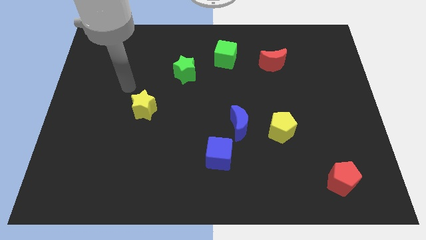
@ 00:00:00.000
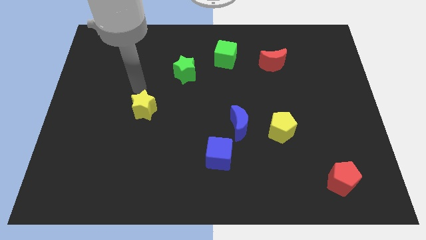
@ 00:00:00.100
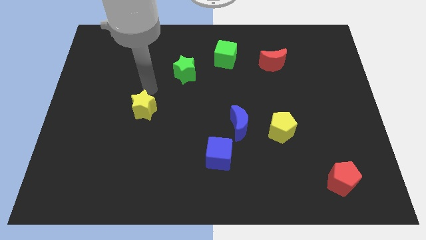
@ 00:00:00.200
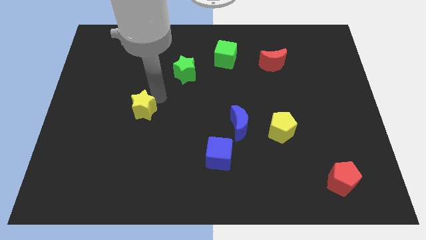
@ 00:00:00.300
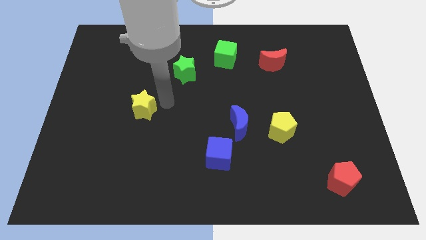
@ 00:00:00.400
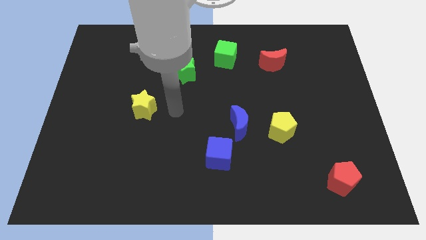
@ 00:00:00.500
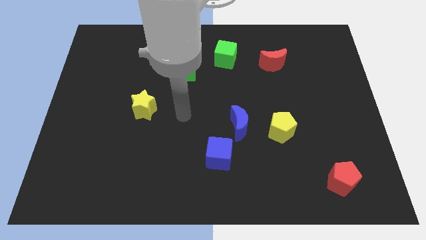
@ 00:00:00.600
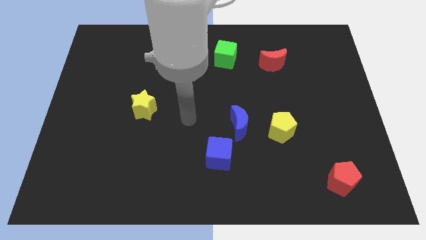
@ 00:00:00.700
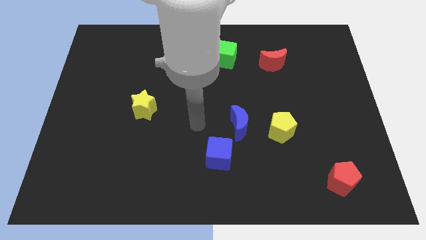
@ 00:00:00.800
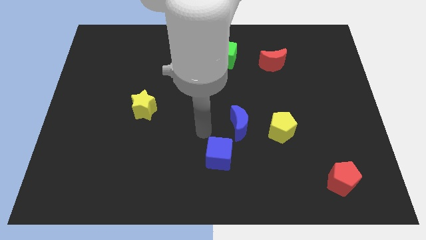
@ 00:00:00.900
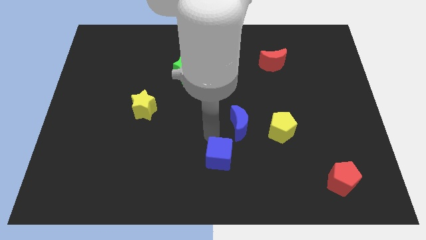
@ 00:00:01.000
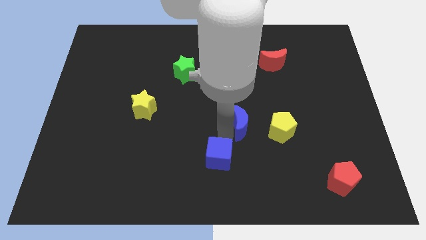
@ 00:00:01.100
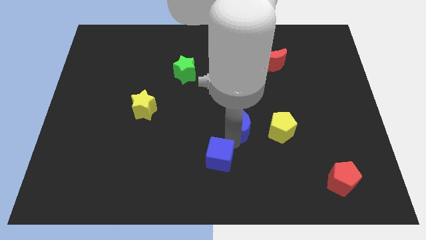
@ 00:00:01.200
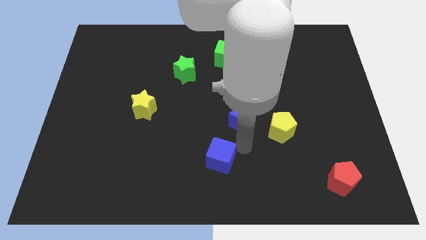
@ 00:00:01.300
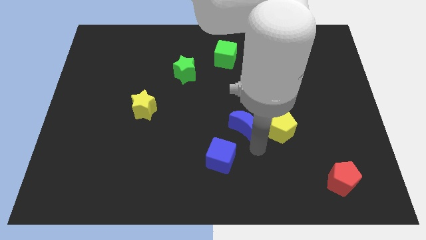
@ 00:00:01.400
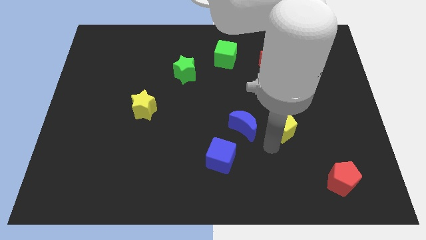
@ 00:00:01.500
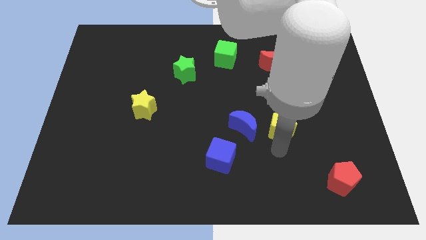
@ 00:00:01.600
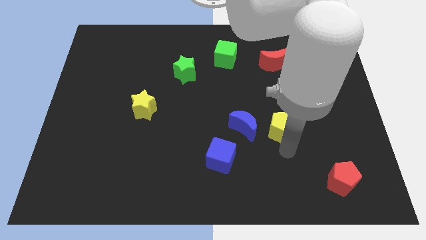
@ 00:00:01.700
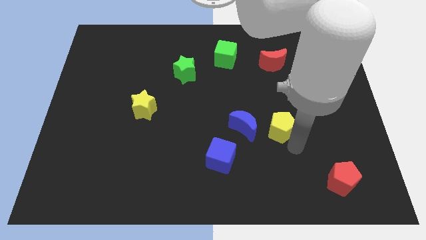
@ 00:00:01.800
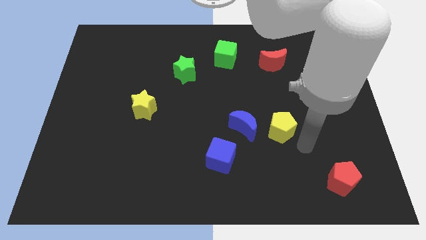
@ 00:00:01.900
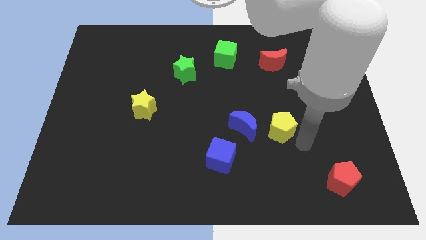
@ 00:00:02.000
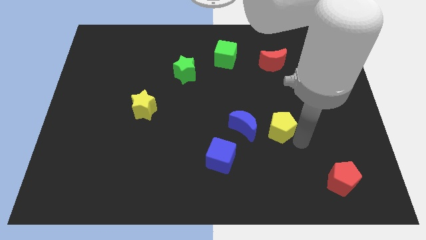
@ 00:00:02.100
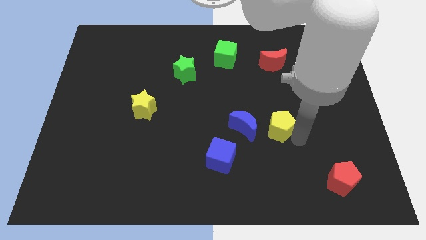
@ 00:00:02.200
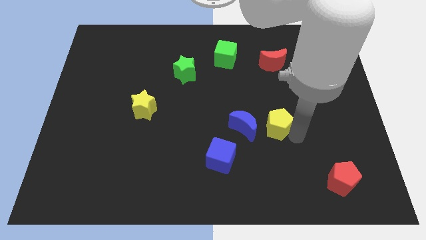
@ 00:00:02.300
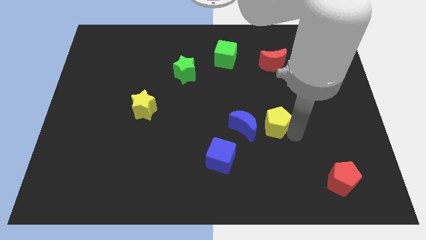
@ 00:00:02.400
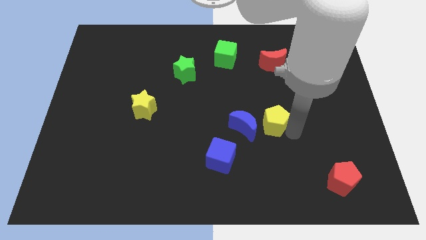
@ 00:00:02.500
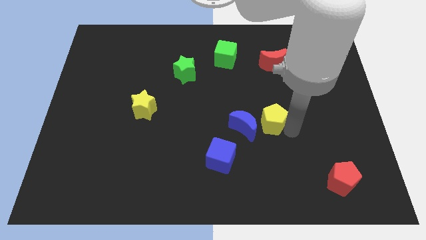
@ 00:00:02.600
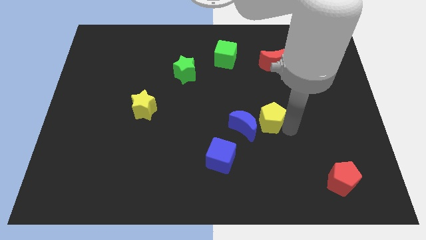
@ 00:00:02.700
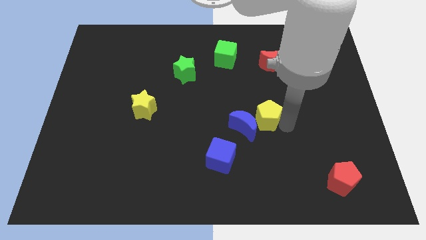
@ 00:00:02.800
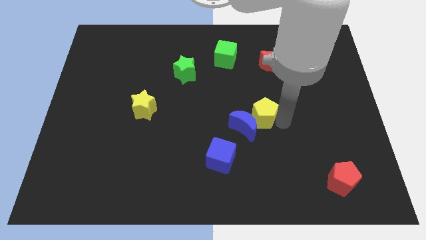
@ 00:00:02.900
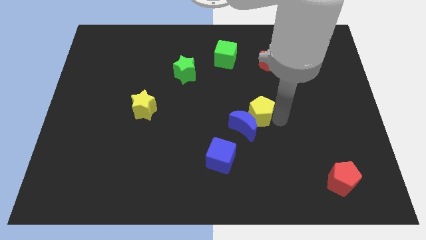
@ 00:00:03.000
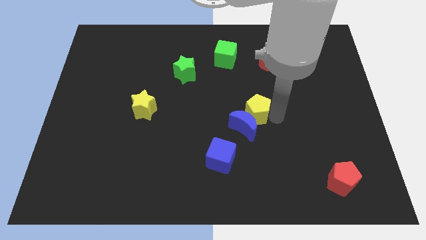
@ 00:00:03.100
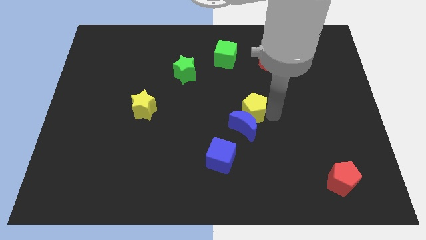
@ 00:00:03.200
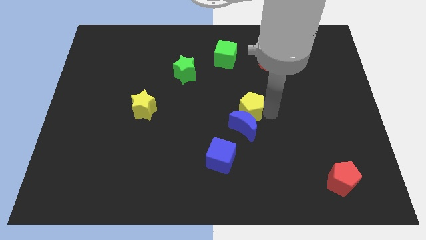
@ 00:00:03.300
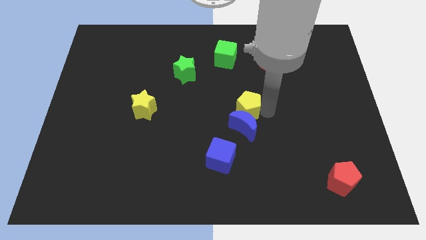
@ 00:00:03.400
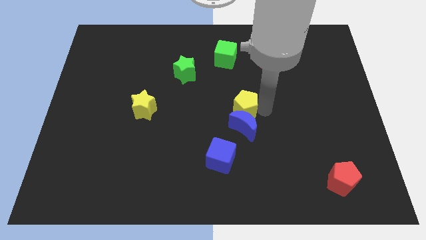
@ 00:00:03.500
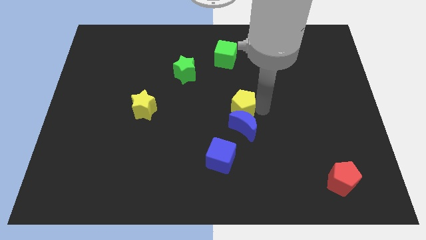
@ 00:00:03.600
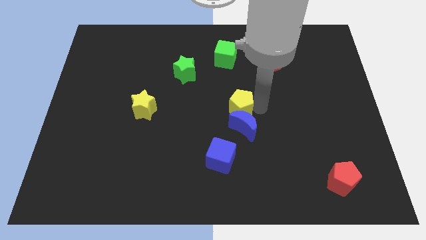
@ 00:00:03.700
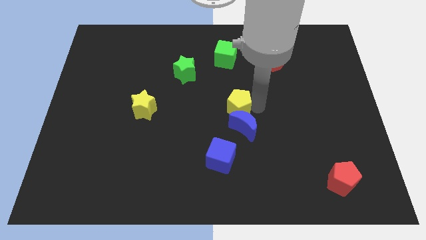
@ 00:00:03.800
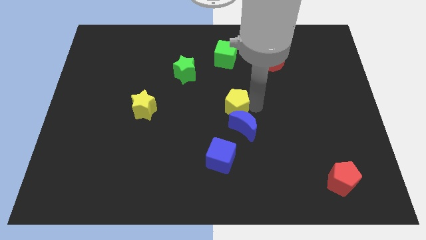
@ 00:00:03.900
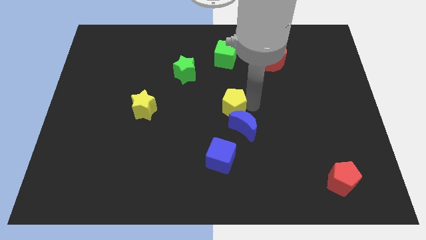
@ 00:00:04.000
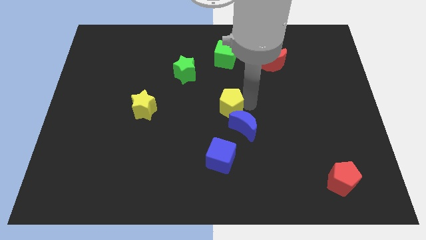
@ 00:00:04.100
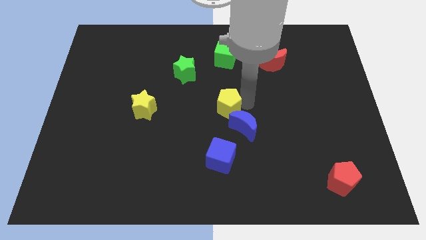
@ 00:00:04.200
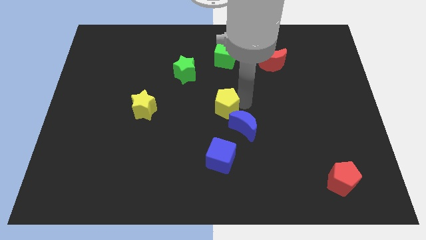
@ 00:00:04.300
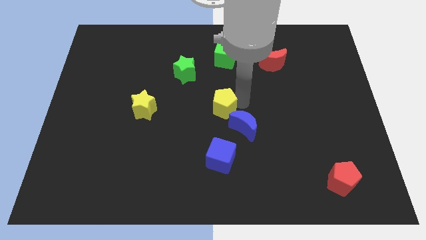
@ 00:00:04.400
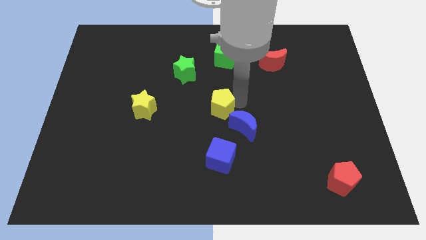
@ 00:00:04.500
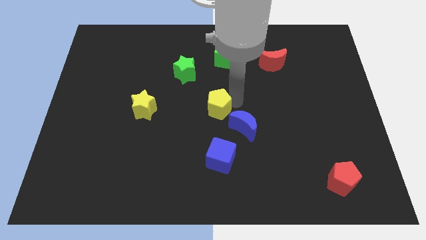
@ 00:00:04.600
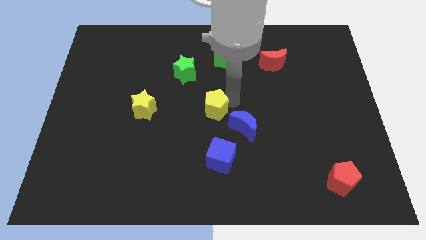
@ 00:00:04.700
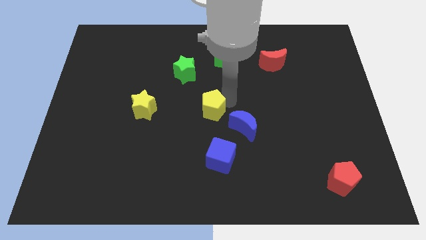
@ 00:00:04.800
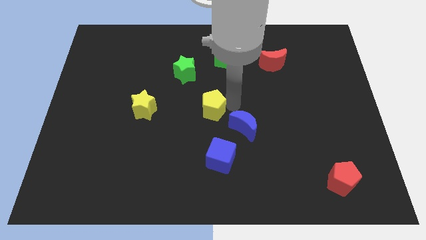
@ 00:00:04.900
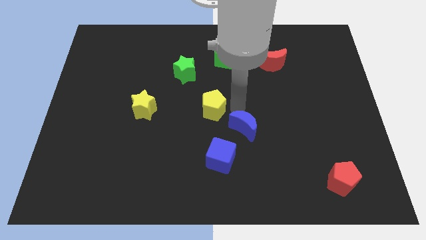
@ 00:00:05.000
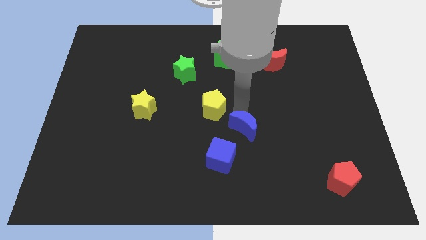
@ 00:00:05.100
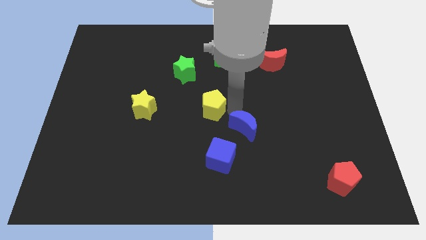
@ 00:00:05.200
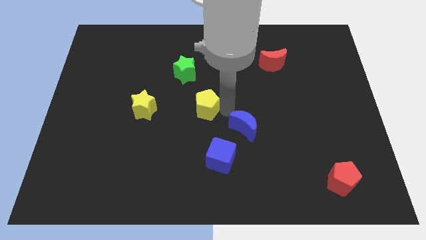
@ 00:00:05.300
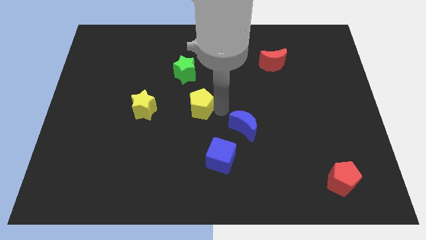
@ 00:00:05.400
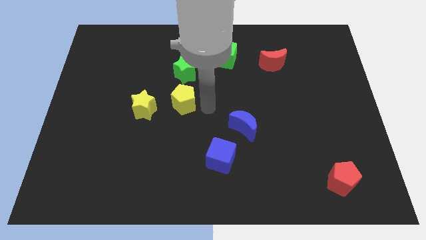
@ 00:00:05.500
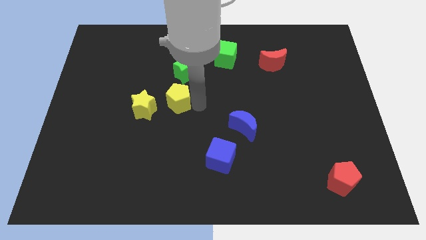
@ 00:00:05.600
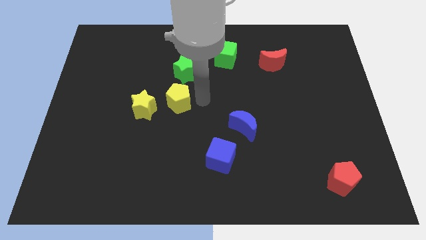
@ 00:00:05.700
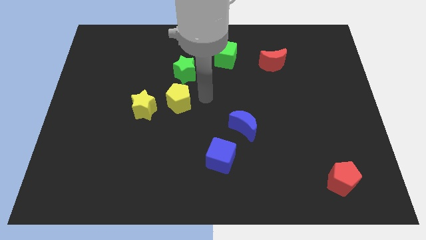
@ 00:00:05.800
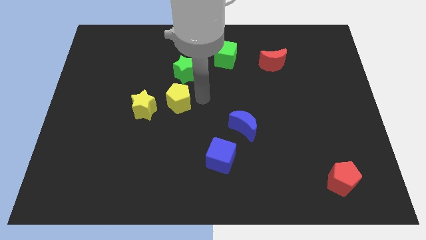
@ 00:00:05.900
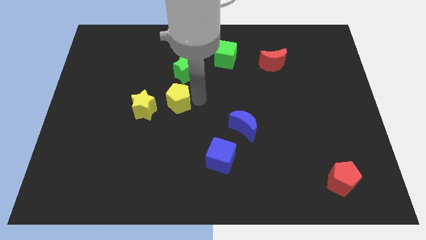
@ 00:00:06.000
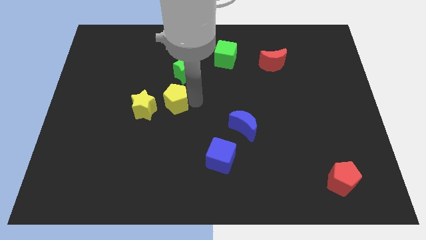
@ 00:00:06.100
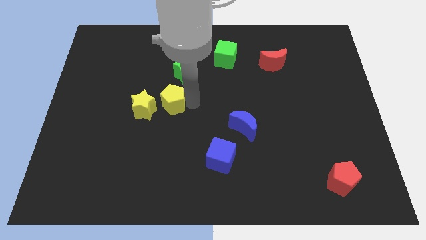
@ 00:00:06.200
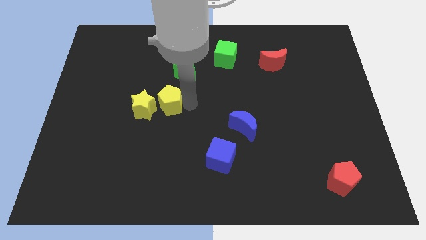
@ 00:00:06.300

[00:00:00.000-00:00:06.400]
slide the yellow pentagon towards the yellow star

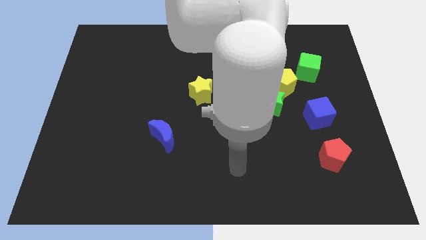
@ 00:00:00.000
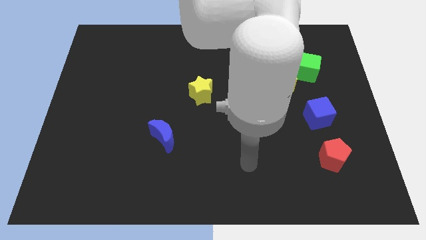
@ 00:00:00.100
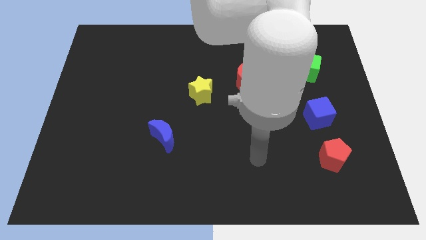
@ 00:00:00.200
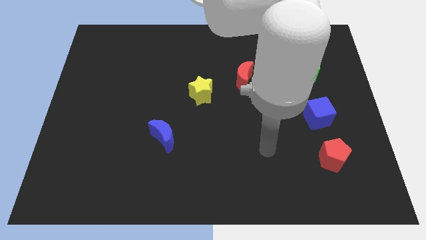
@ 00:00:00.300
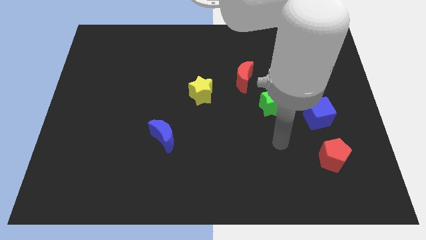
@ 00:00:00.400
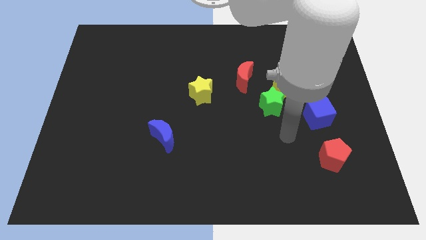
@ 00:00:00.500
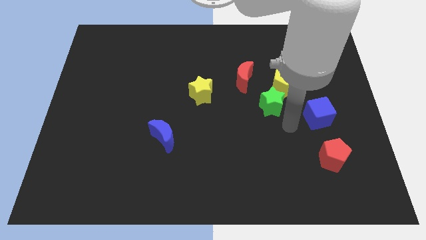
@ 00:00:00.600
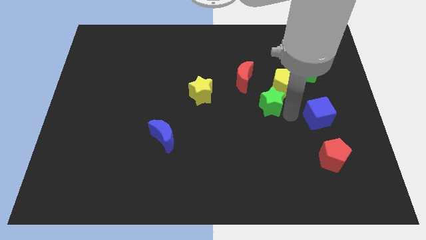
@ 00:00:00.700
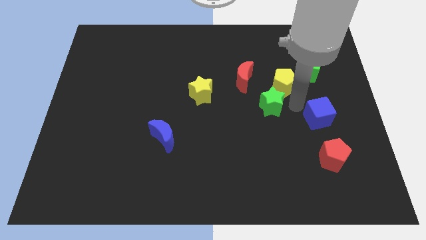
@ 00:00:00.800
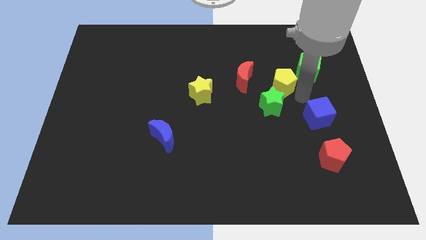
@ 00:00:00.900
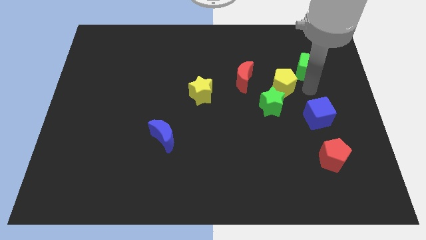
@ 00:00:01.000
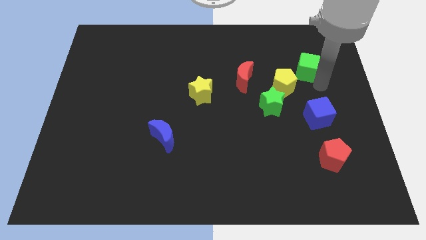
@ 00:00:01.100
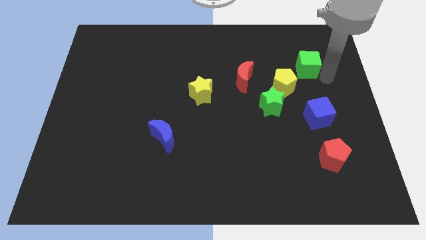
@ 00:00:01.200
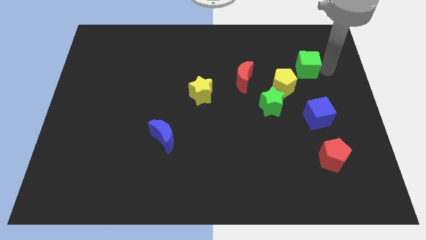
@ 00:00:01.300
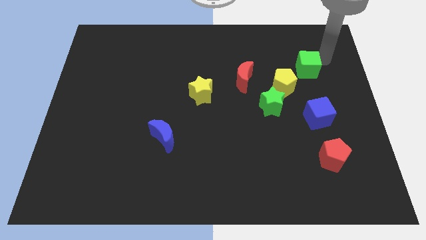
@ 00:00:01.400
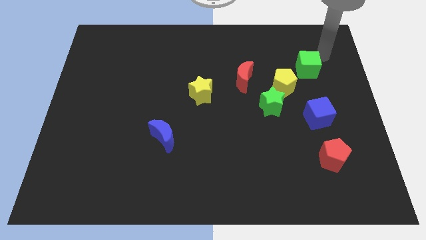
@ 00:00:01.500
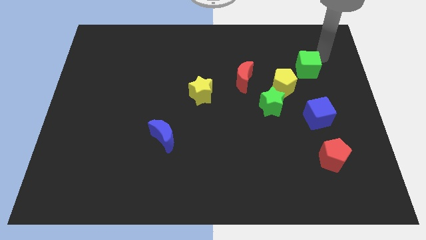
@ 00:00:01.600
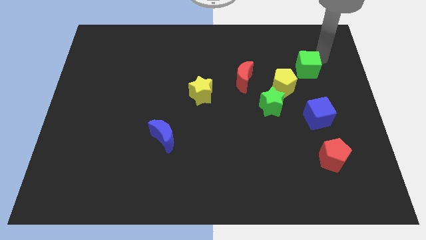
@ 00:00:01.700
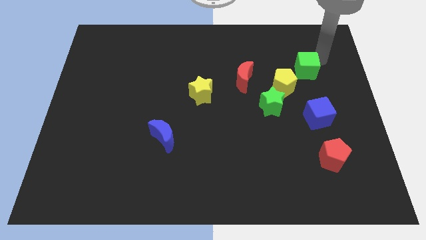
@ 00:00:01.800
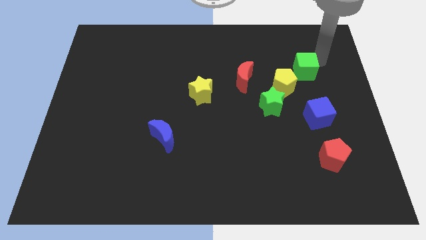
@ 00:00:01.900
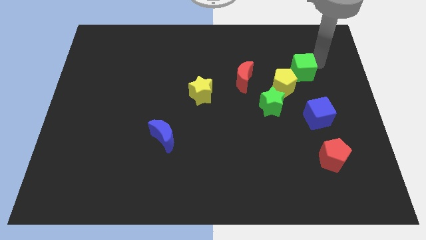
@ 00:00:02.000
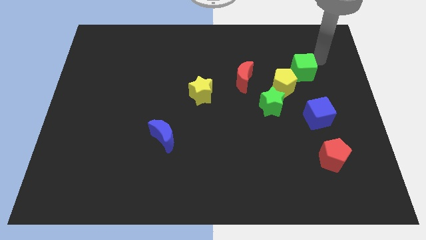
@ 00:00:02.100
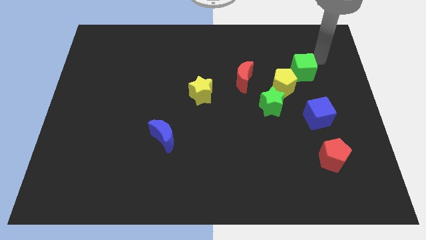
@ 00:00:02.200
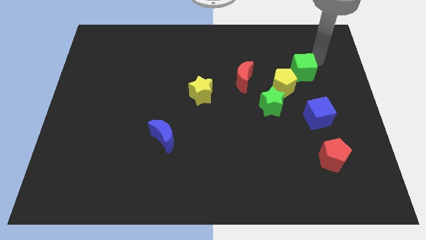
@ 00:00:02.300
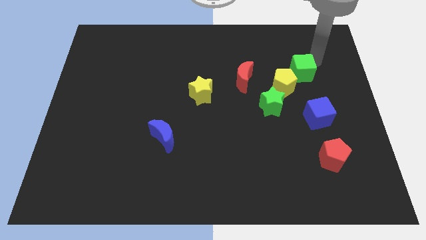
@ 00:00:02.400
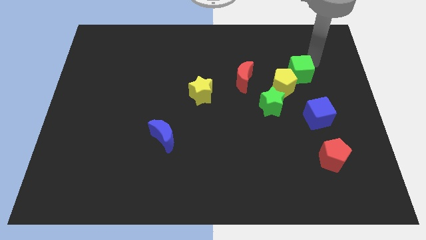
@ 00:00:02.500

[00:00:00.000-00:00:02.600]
put the green cube close to the yellow pentagon
